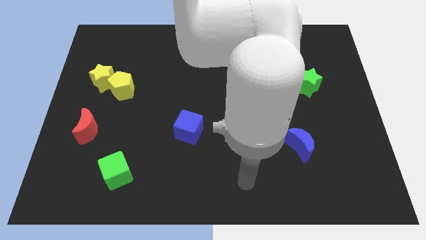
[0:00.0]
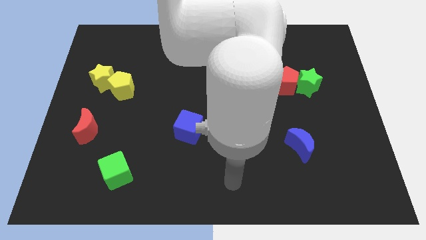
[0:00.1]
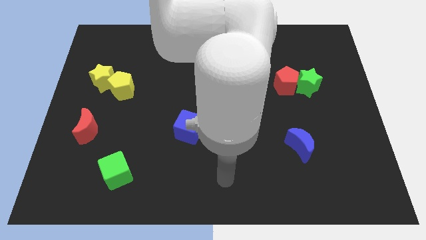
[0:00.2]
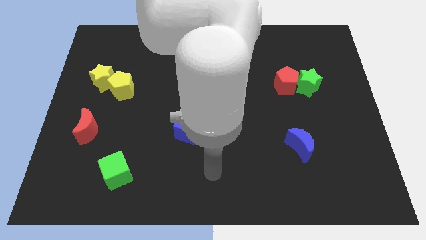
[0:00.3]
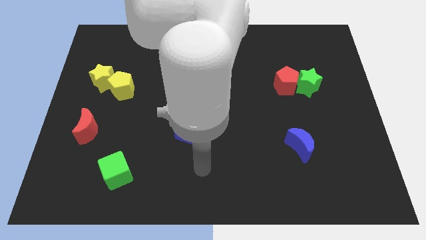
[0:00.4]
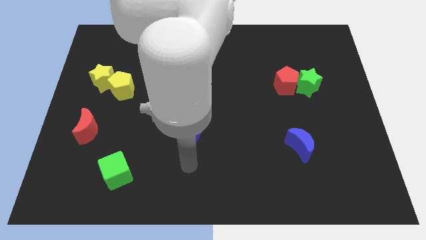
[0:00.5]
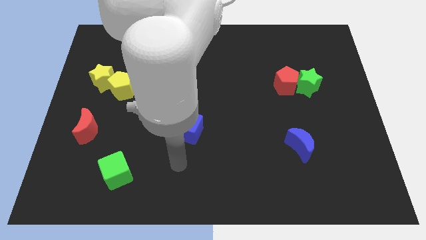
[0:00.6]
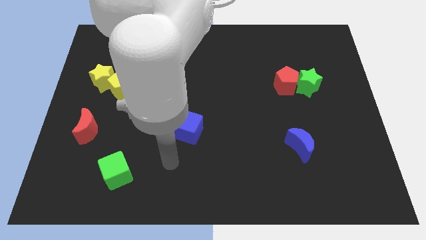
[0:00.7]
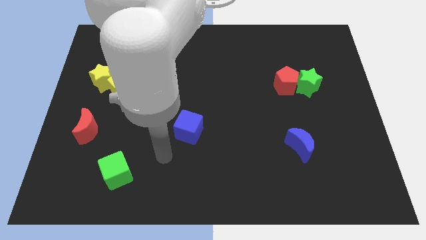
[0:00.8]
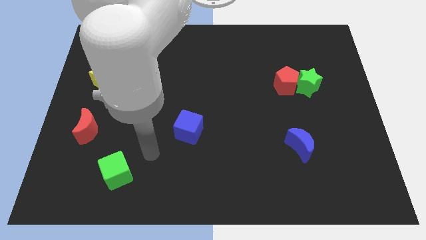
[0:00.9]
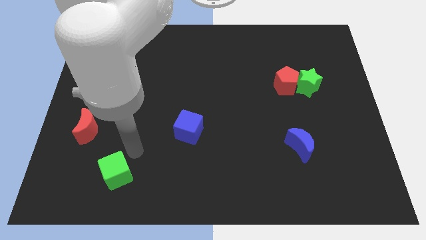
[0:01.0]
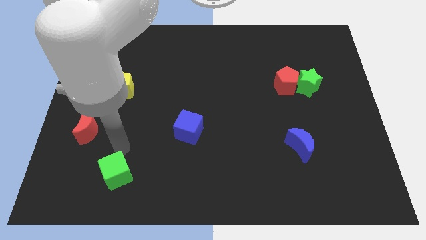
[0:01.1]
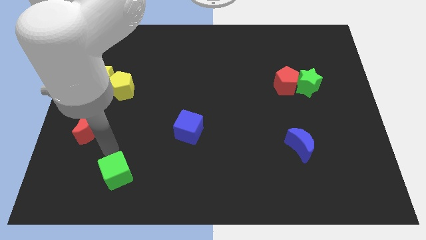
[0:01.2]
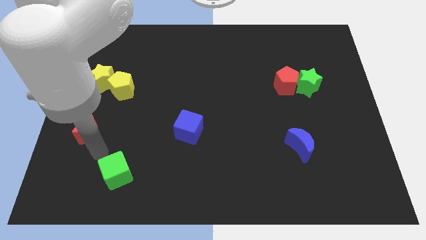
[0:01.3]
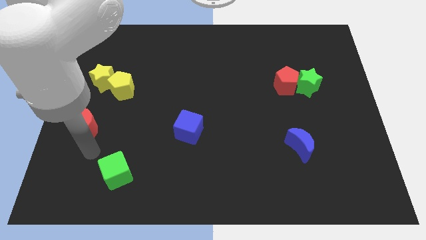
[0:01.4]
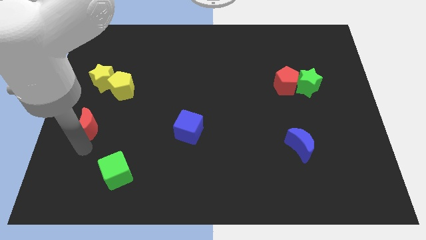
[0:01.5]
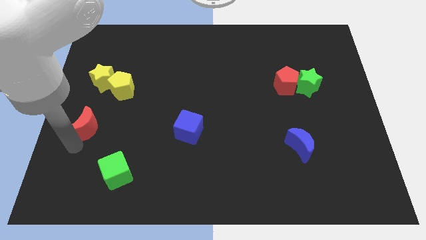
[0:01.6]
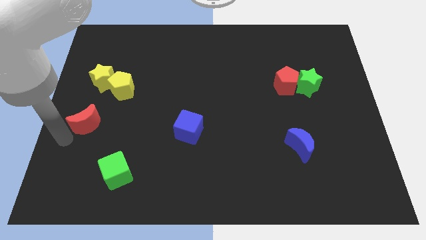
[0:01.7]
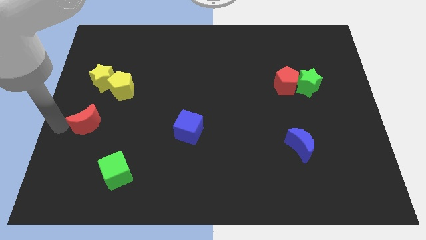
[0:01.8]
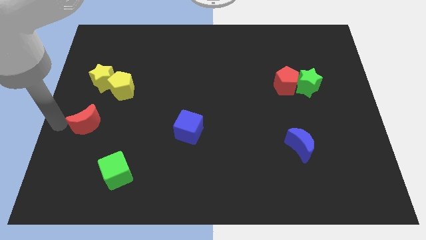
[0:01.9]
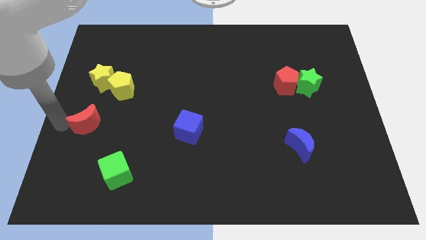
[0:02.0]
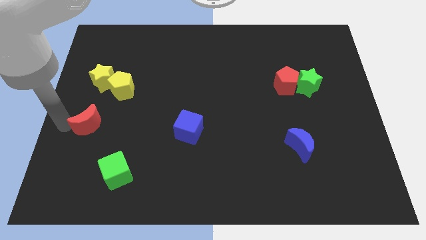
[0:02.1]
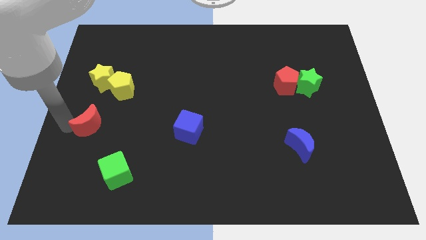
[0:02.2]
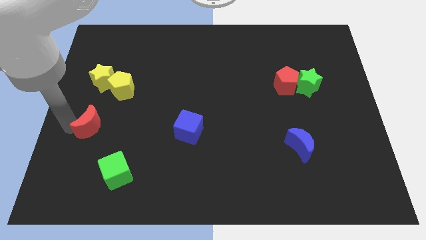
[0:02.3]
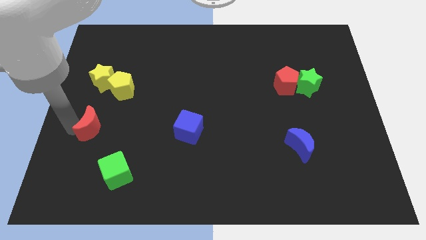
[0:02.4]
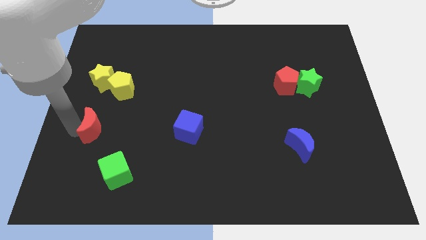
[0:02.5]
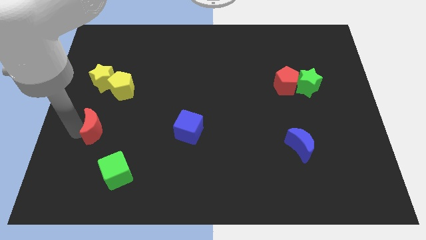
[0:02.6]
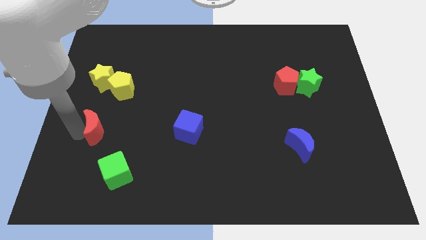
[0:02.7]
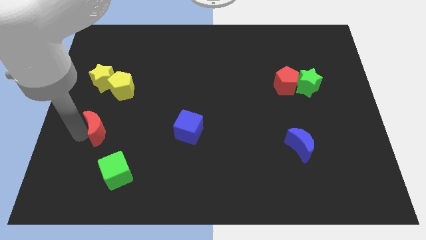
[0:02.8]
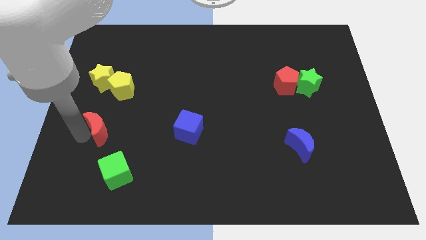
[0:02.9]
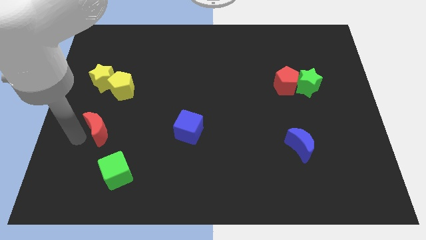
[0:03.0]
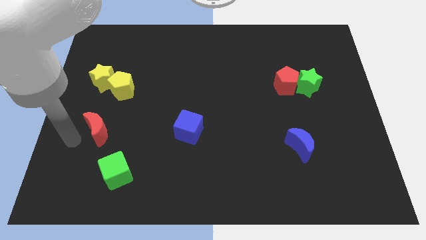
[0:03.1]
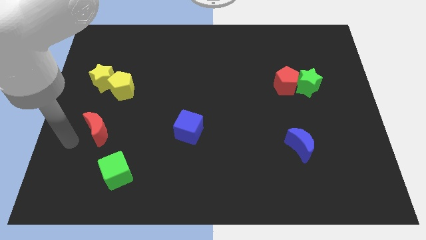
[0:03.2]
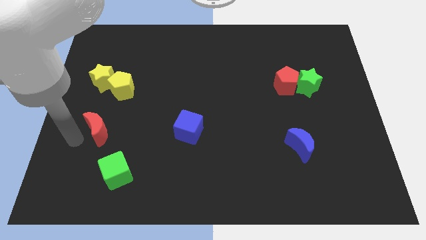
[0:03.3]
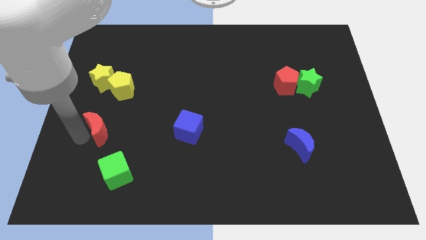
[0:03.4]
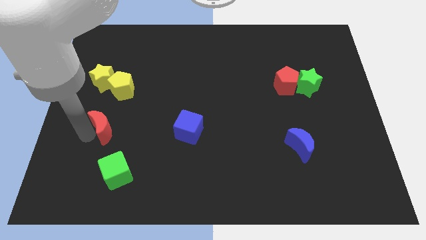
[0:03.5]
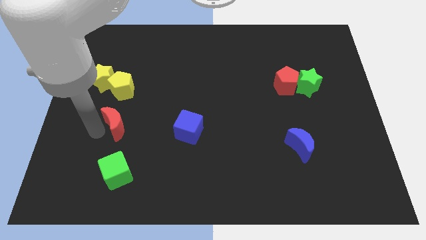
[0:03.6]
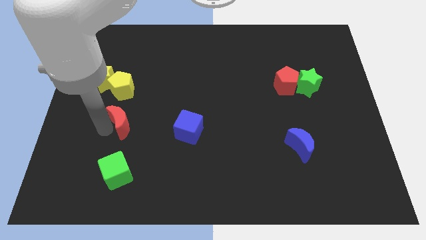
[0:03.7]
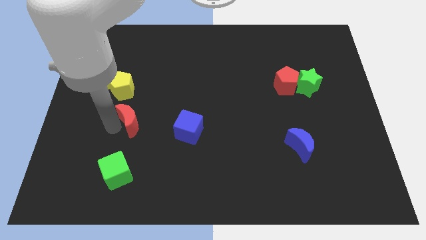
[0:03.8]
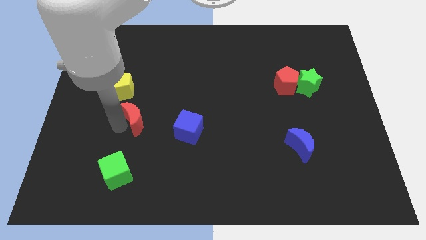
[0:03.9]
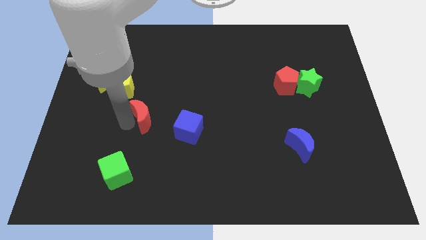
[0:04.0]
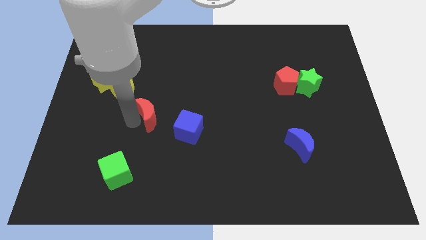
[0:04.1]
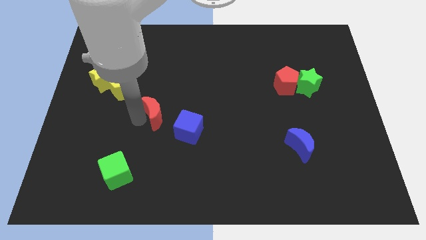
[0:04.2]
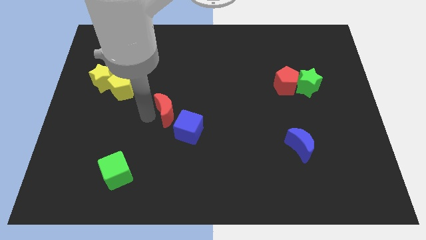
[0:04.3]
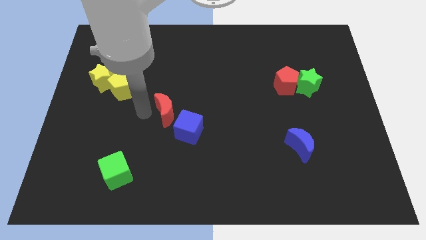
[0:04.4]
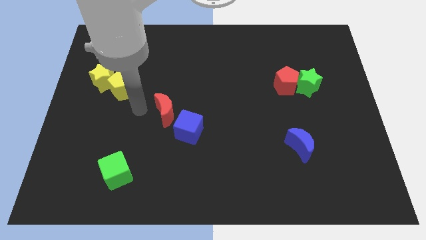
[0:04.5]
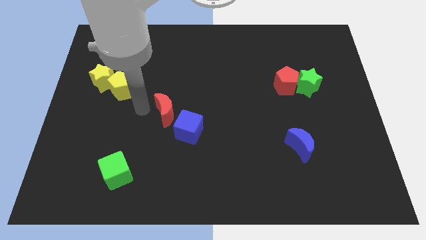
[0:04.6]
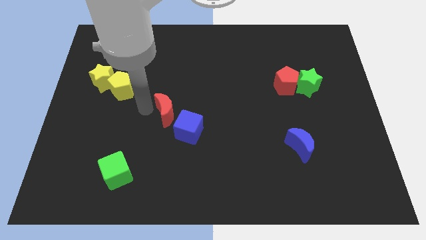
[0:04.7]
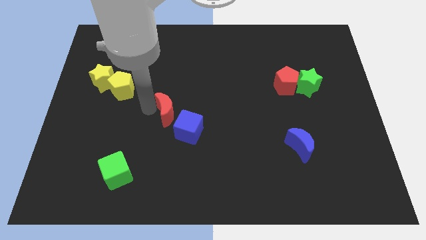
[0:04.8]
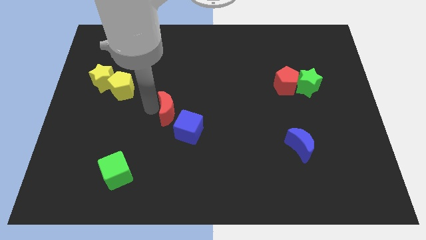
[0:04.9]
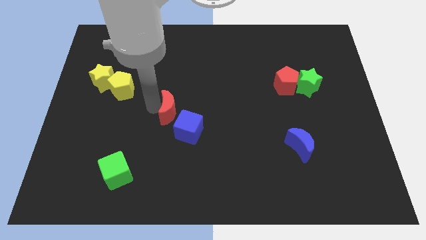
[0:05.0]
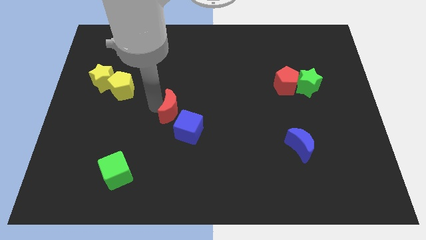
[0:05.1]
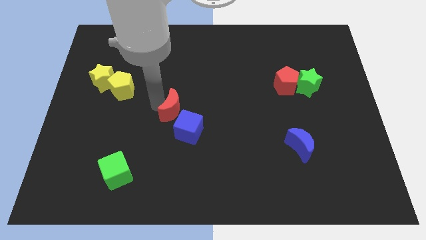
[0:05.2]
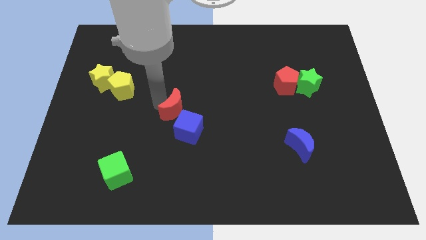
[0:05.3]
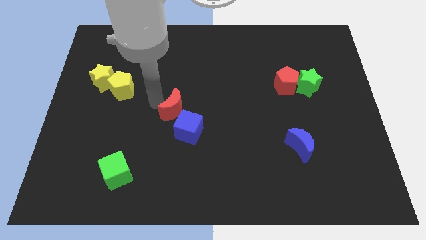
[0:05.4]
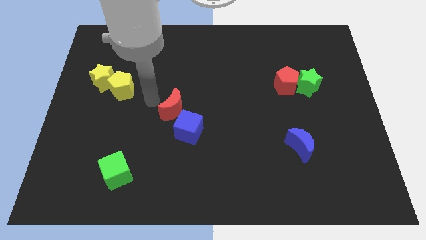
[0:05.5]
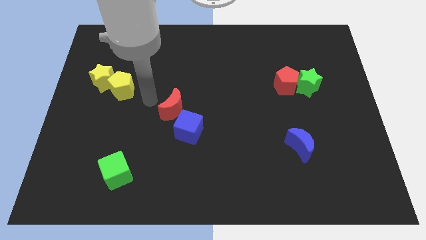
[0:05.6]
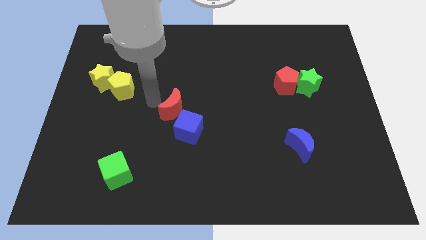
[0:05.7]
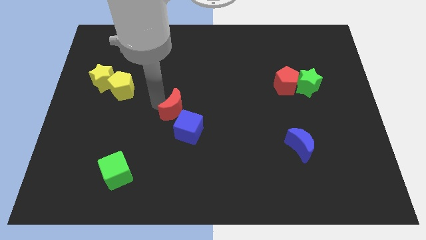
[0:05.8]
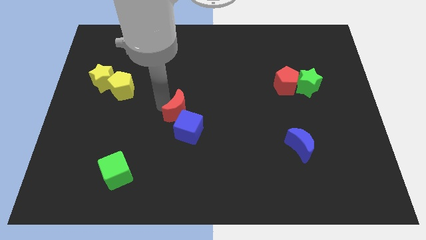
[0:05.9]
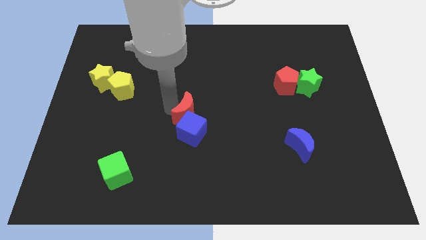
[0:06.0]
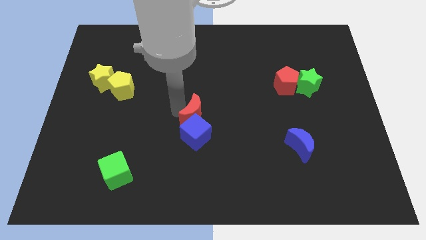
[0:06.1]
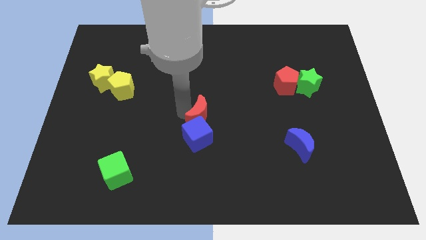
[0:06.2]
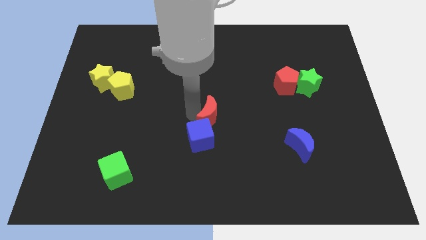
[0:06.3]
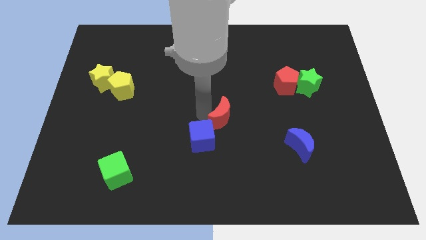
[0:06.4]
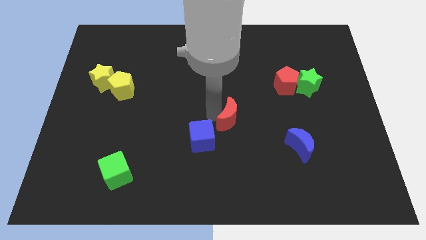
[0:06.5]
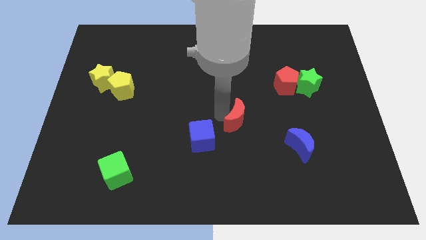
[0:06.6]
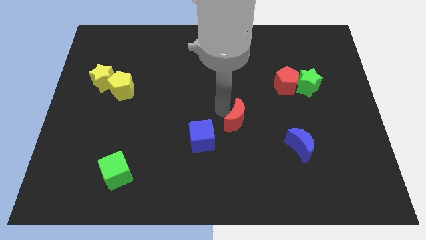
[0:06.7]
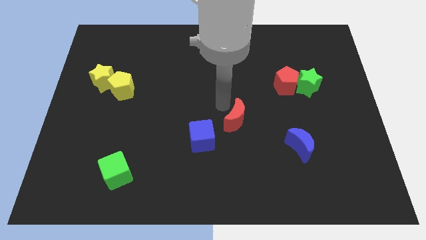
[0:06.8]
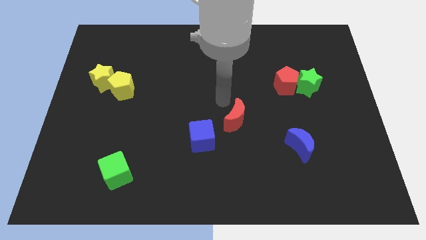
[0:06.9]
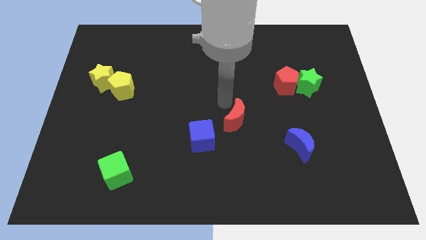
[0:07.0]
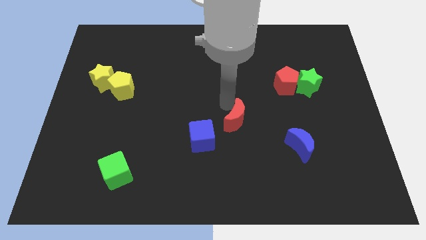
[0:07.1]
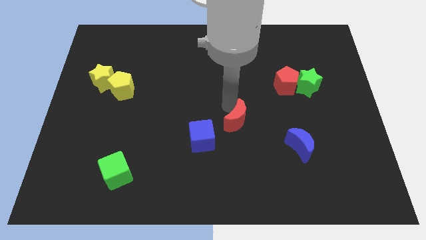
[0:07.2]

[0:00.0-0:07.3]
move the red moon to the right side of the blue cube

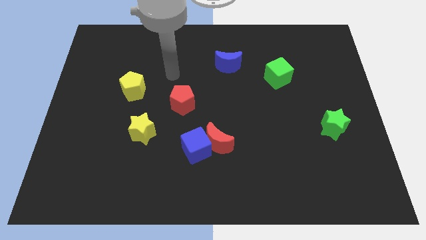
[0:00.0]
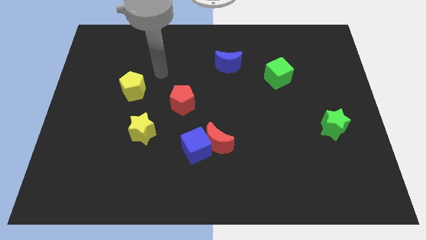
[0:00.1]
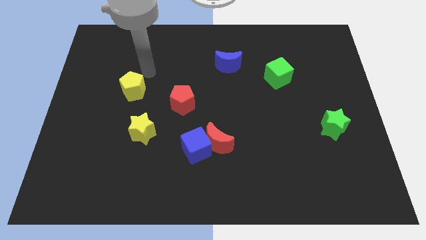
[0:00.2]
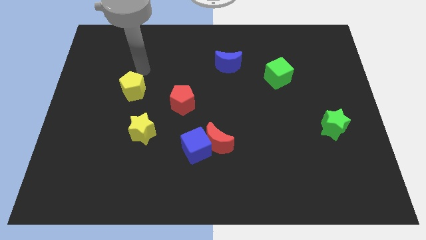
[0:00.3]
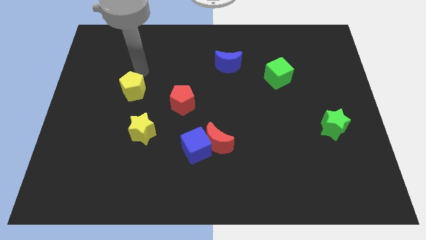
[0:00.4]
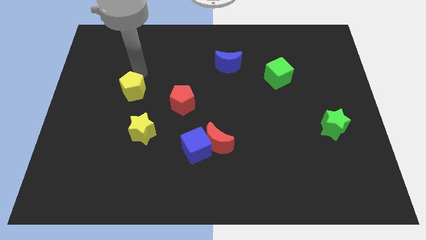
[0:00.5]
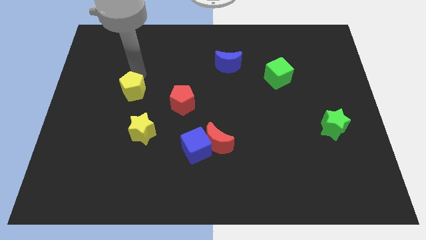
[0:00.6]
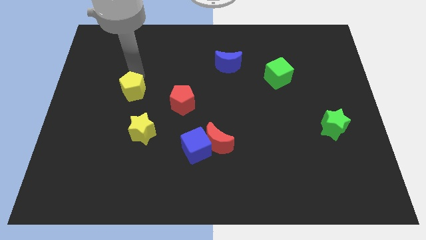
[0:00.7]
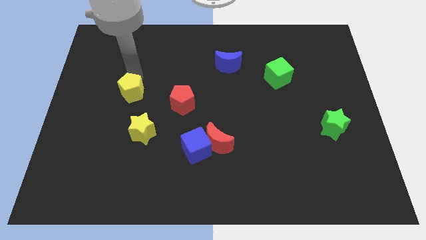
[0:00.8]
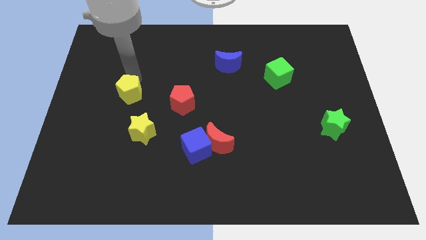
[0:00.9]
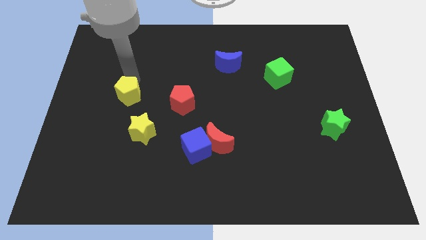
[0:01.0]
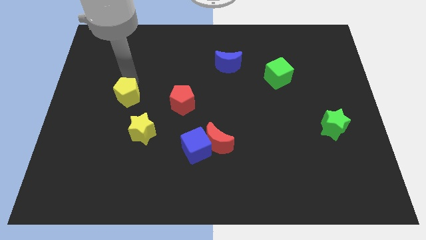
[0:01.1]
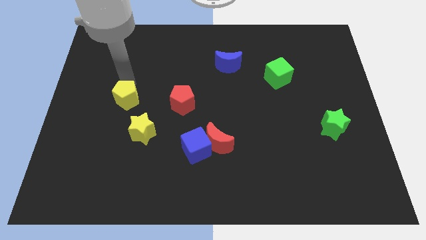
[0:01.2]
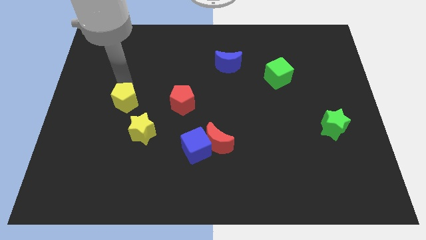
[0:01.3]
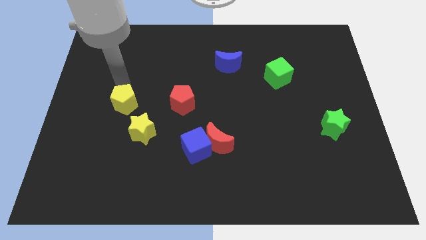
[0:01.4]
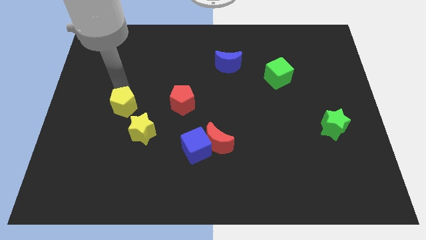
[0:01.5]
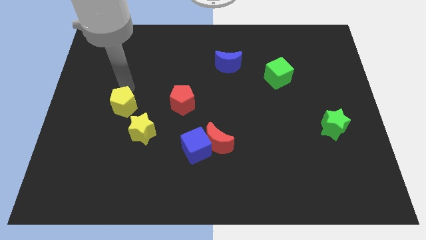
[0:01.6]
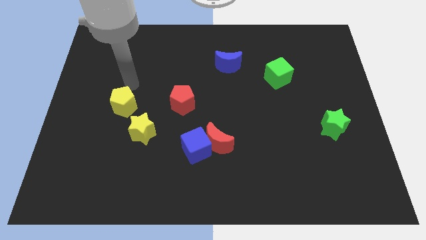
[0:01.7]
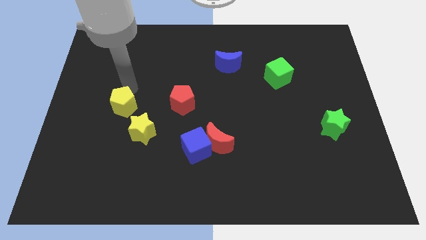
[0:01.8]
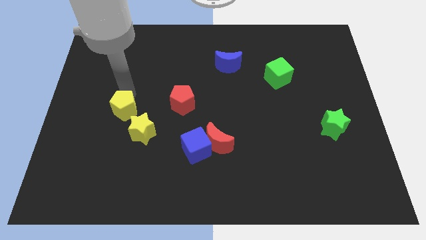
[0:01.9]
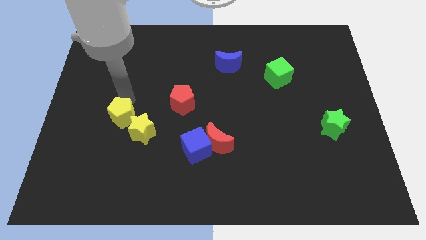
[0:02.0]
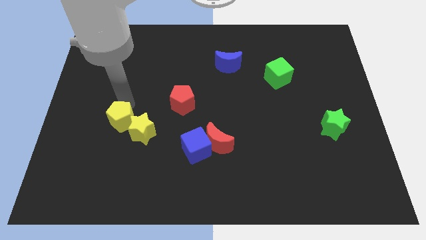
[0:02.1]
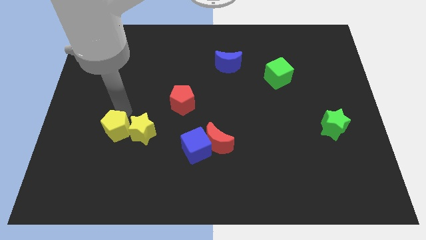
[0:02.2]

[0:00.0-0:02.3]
slide the yellow pentagon diagonally down and to the left of the yellow star
